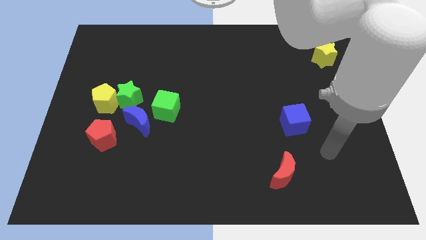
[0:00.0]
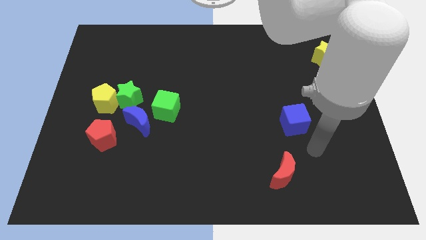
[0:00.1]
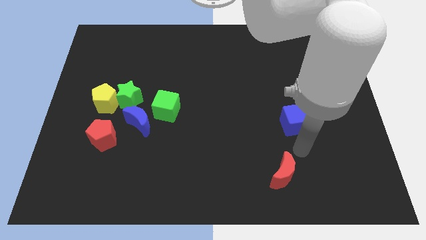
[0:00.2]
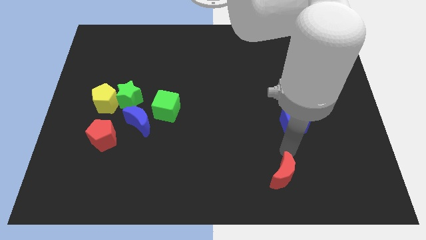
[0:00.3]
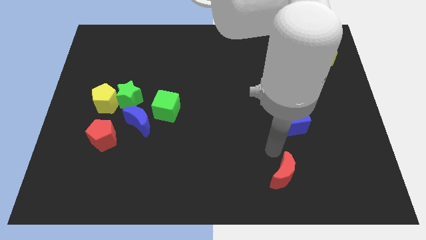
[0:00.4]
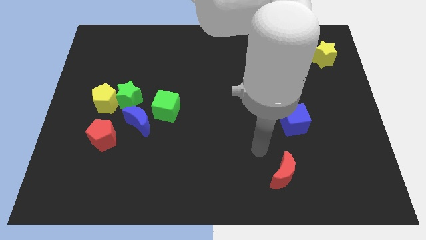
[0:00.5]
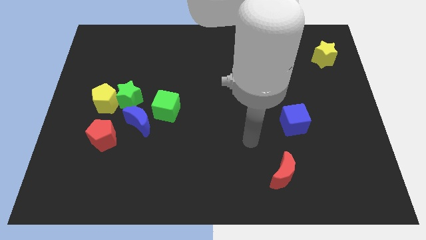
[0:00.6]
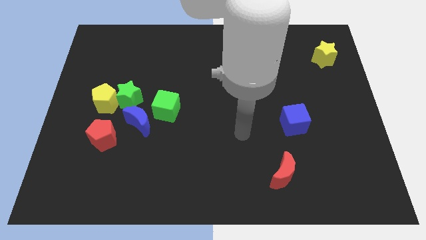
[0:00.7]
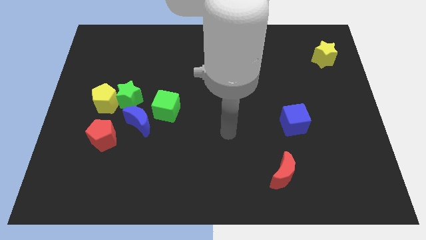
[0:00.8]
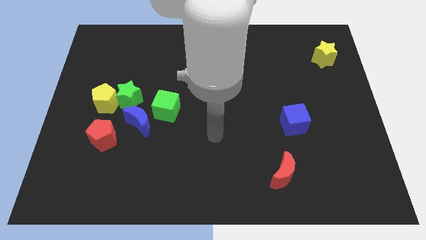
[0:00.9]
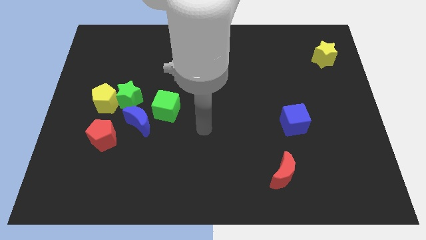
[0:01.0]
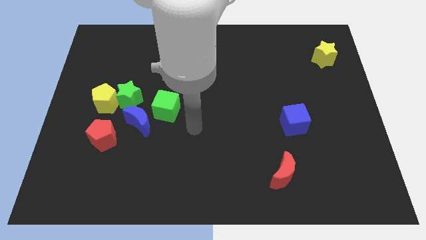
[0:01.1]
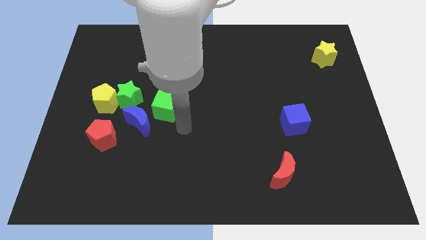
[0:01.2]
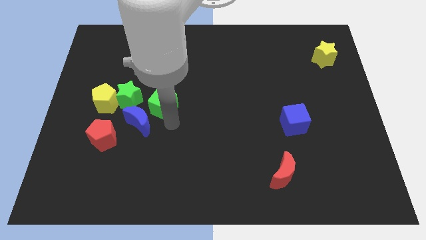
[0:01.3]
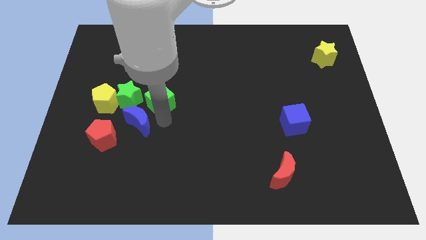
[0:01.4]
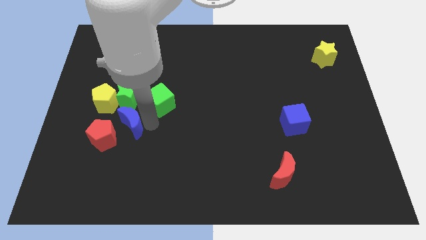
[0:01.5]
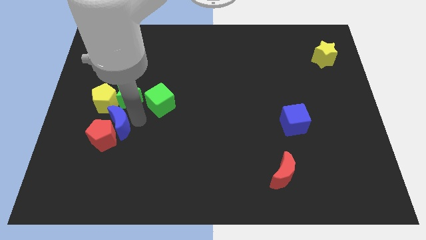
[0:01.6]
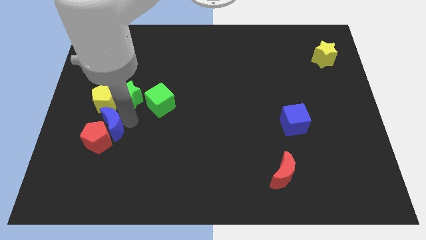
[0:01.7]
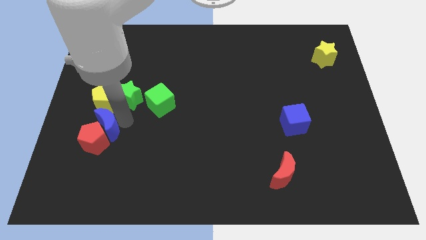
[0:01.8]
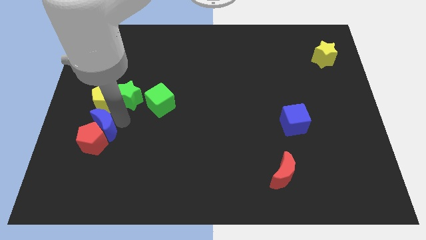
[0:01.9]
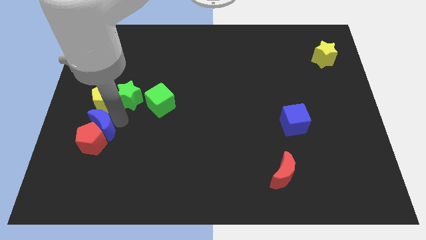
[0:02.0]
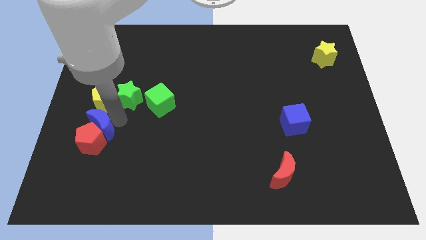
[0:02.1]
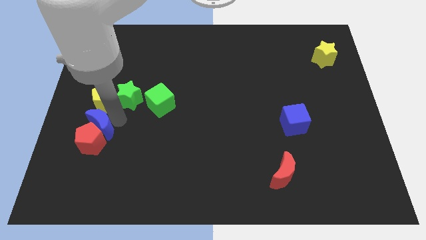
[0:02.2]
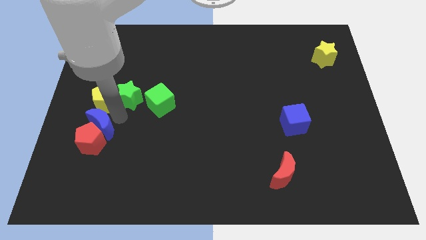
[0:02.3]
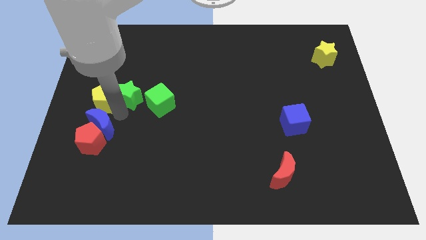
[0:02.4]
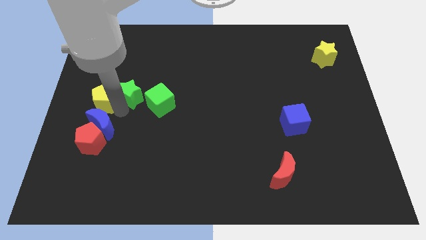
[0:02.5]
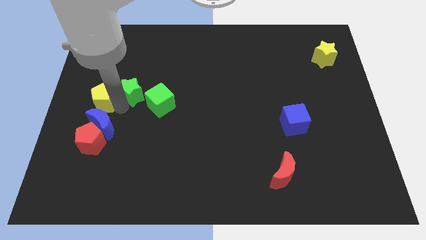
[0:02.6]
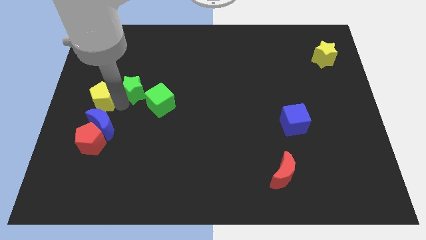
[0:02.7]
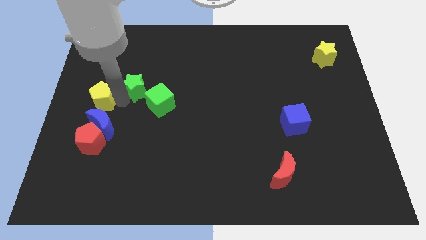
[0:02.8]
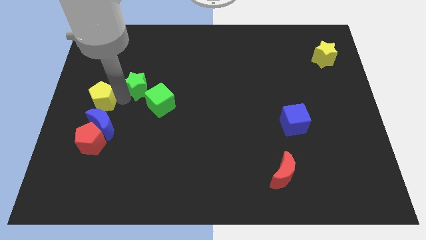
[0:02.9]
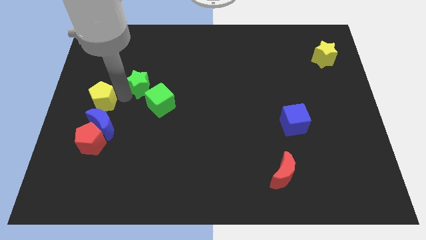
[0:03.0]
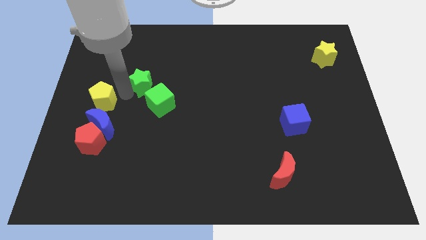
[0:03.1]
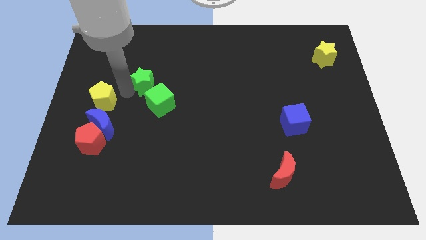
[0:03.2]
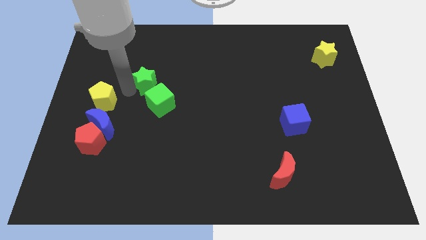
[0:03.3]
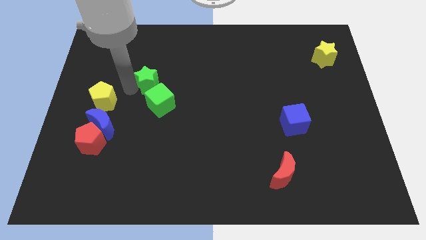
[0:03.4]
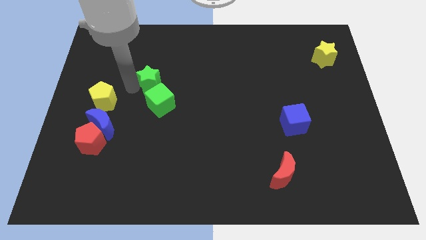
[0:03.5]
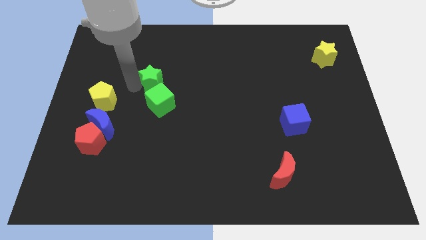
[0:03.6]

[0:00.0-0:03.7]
pull the green star apart from the yellow pentagon, blue moon, and green cube

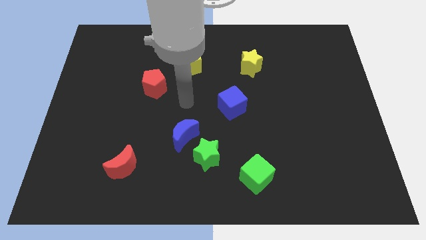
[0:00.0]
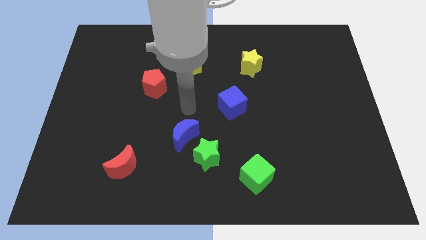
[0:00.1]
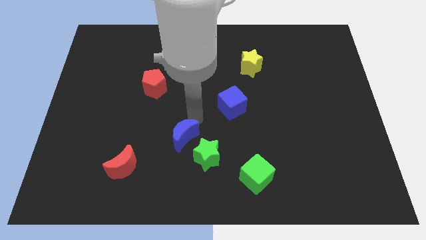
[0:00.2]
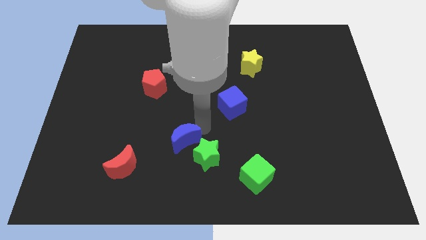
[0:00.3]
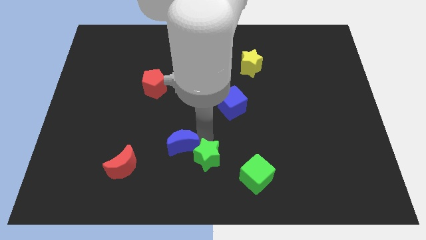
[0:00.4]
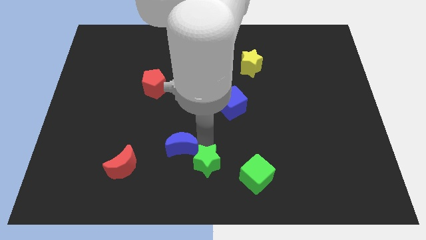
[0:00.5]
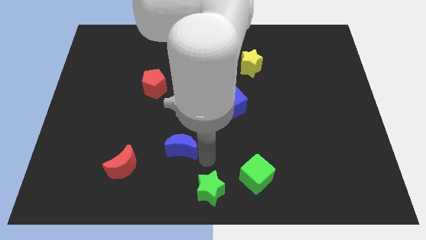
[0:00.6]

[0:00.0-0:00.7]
separate the blue moon from the green star

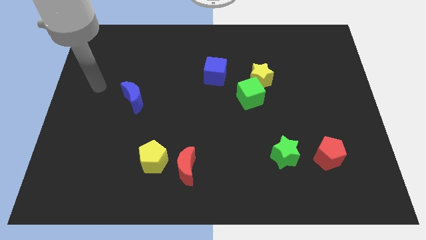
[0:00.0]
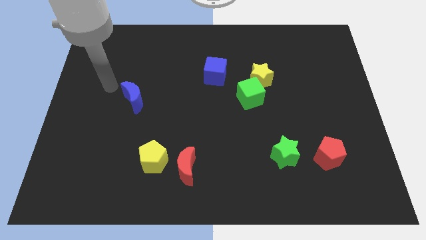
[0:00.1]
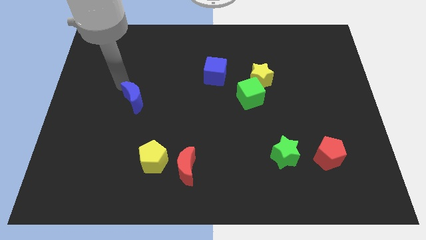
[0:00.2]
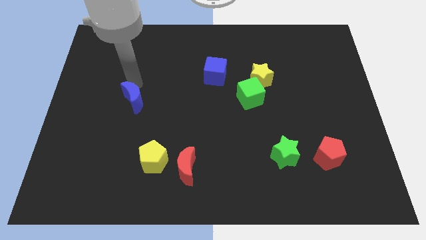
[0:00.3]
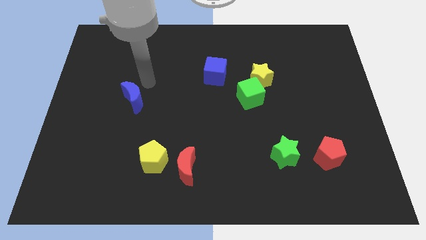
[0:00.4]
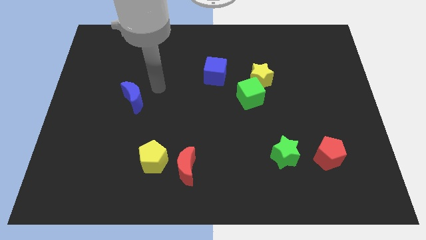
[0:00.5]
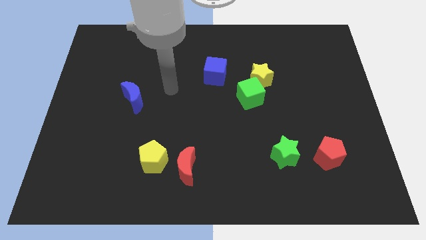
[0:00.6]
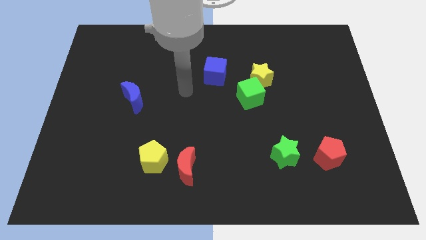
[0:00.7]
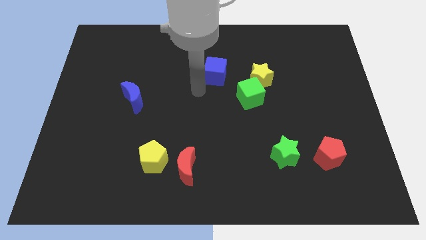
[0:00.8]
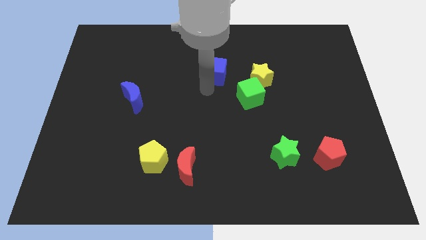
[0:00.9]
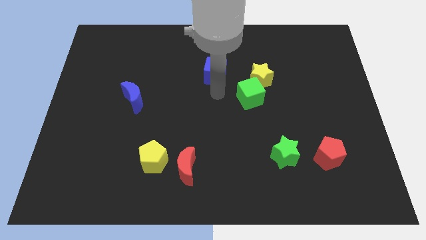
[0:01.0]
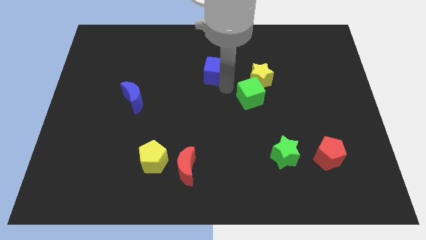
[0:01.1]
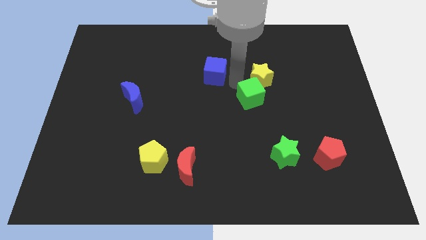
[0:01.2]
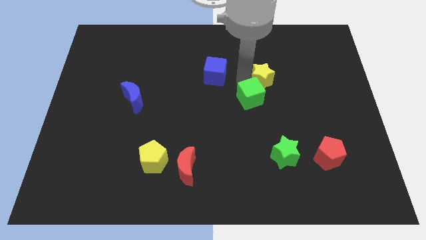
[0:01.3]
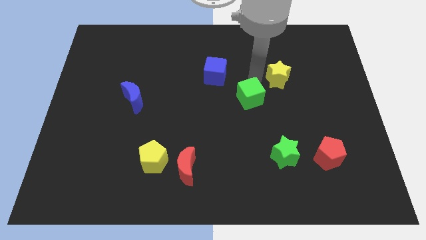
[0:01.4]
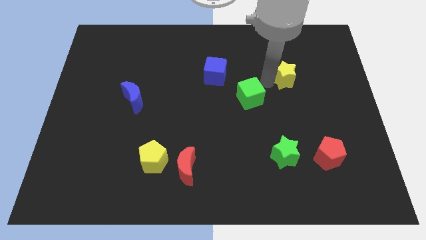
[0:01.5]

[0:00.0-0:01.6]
move the green cube away from the yellow star

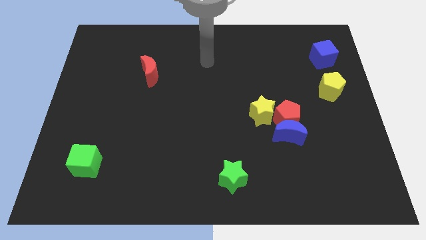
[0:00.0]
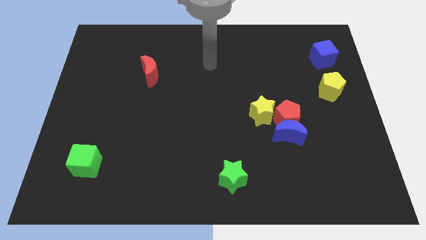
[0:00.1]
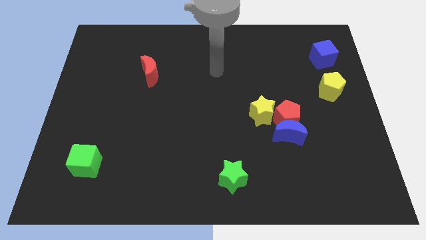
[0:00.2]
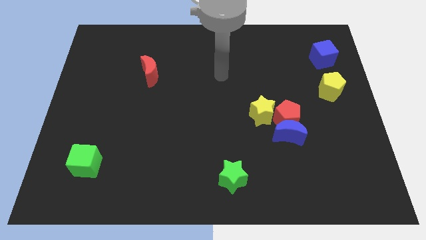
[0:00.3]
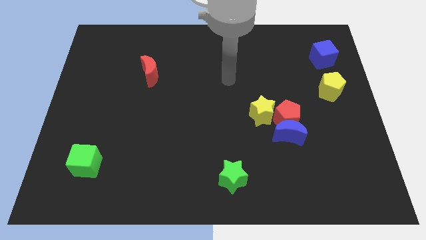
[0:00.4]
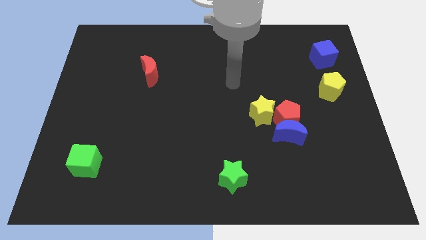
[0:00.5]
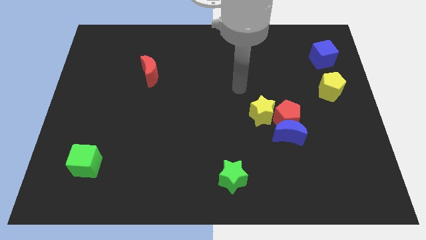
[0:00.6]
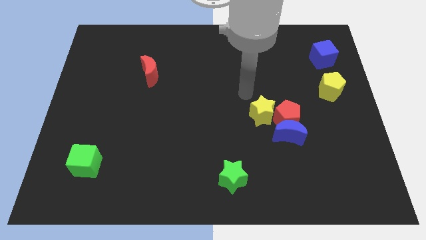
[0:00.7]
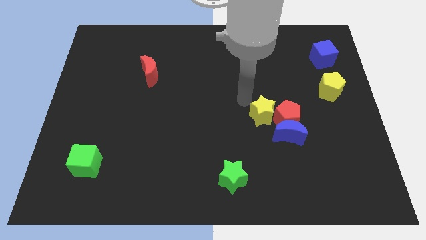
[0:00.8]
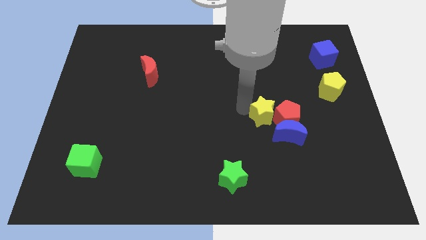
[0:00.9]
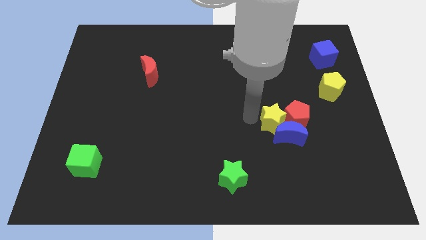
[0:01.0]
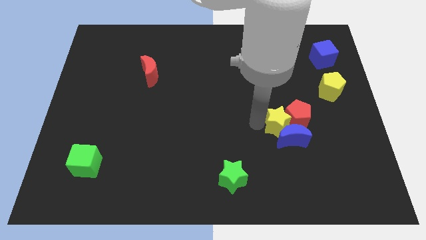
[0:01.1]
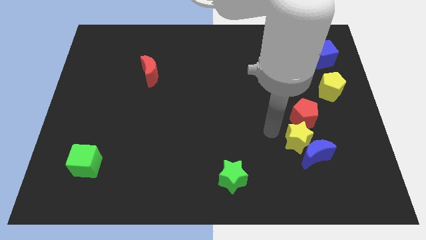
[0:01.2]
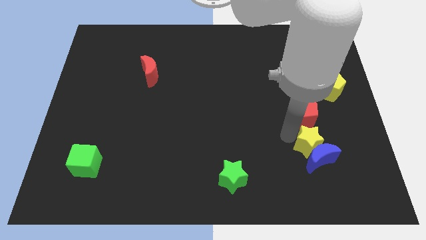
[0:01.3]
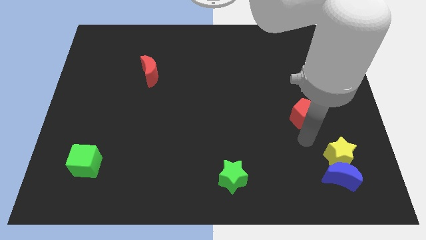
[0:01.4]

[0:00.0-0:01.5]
separate the red pentagon from the blue moon and yellow star

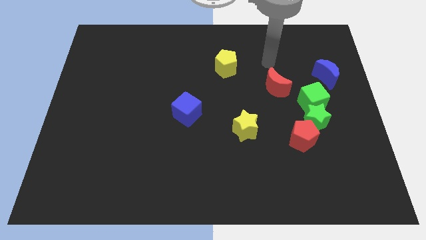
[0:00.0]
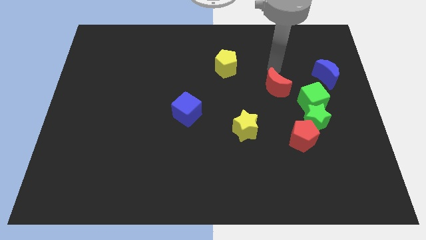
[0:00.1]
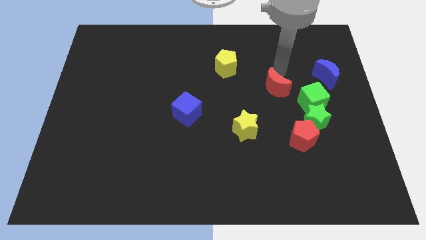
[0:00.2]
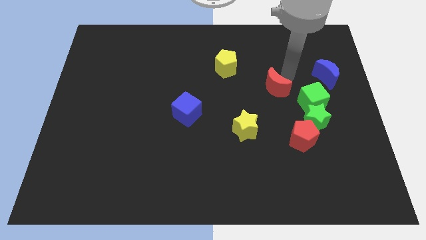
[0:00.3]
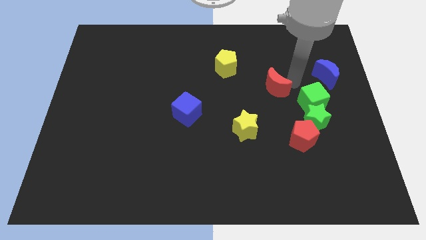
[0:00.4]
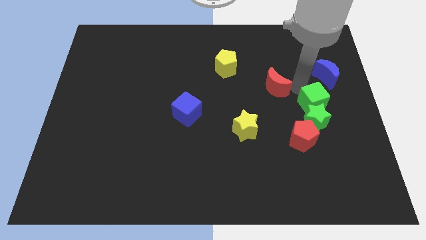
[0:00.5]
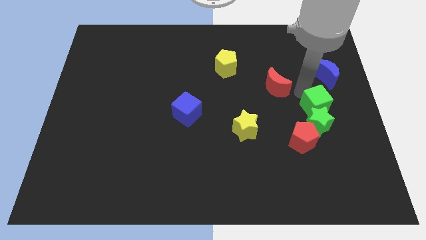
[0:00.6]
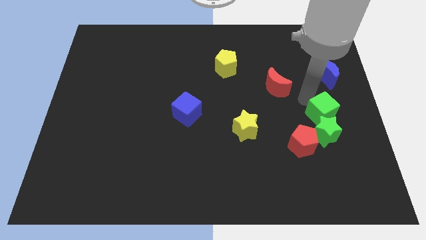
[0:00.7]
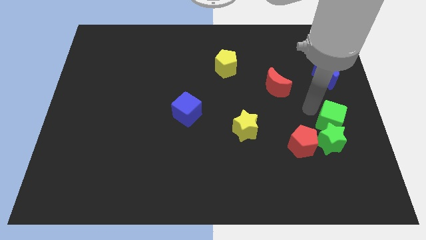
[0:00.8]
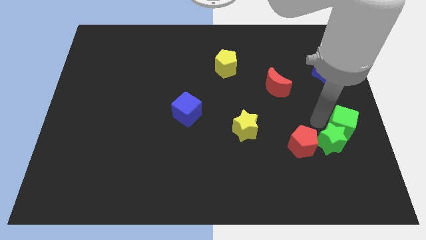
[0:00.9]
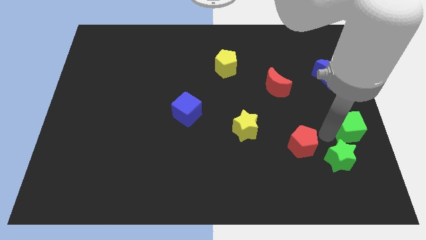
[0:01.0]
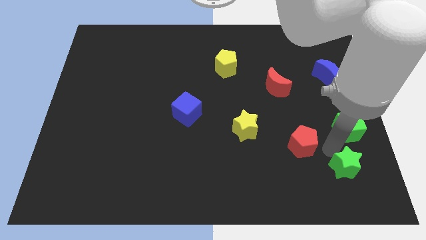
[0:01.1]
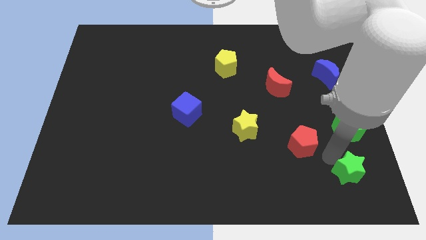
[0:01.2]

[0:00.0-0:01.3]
pull the red pentagon apart from the green star

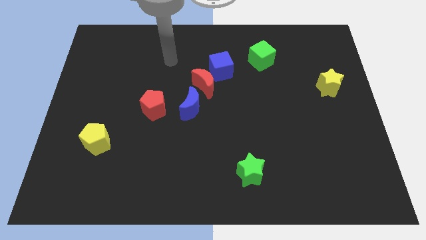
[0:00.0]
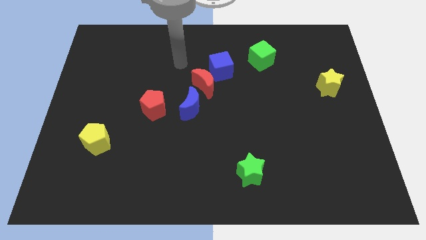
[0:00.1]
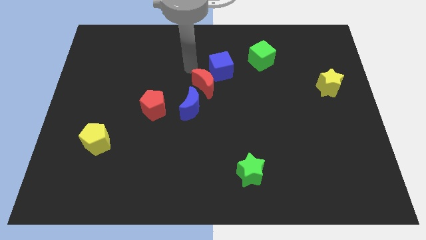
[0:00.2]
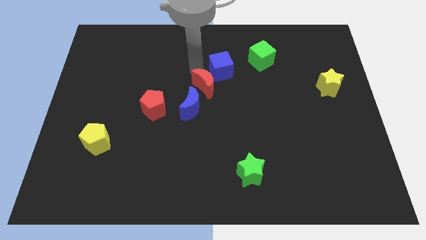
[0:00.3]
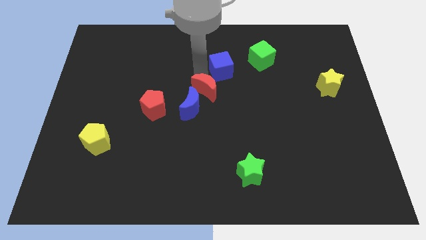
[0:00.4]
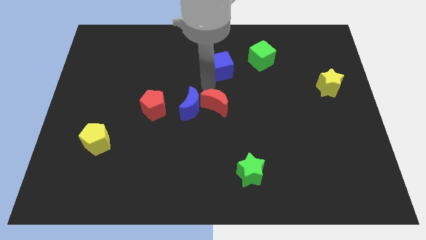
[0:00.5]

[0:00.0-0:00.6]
pull the blue cube apart from the red moon
